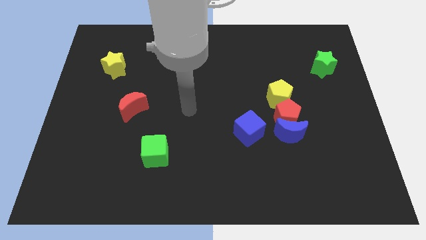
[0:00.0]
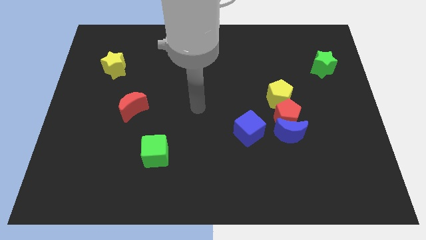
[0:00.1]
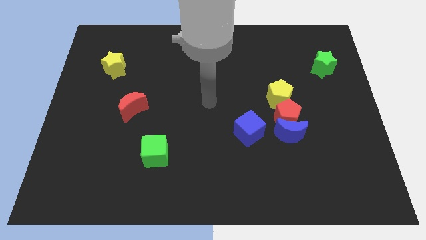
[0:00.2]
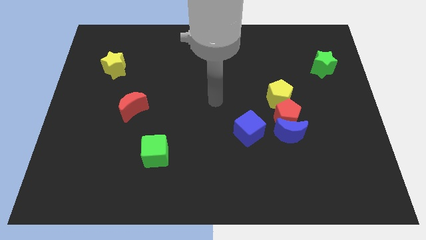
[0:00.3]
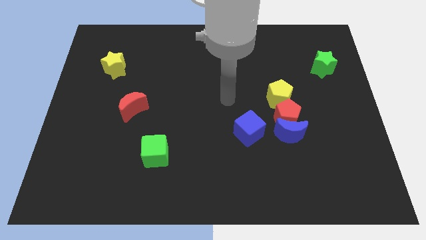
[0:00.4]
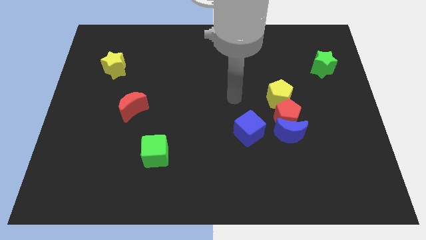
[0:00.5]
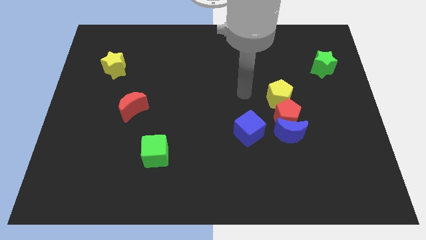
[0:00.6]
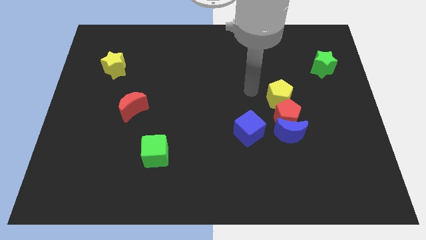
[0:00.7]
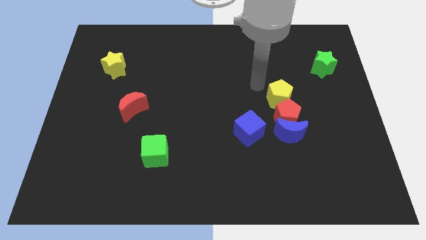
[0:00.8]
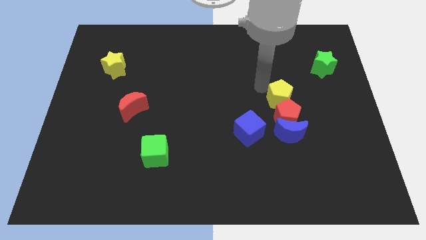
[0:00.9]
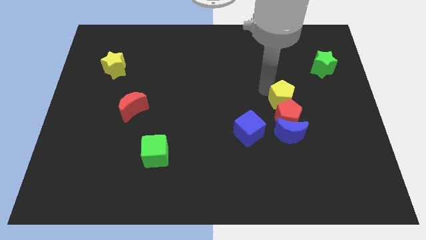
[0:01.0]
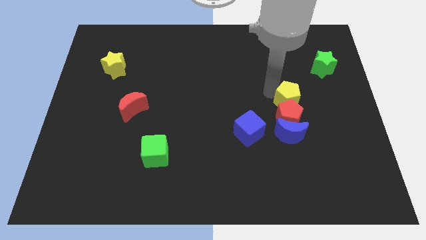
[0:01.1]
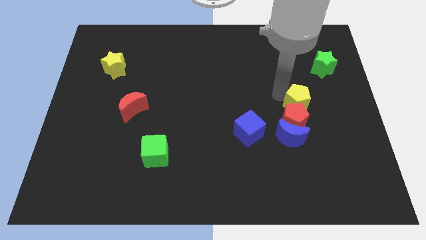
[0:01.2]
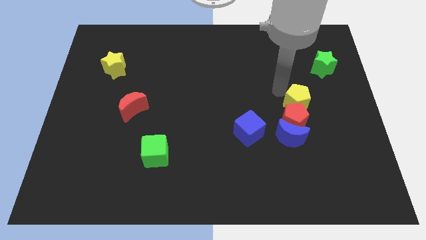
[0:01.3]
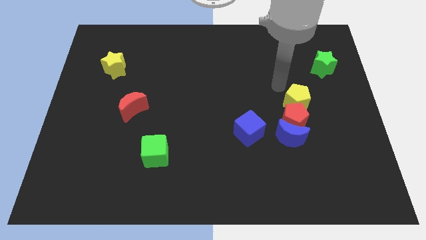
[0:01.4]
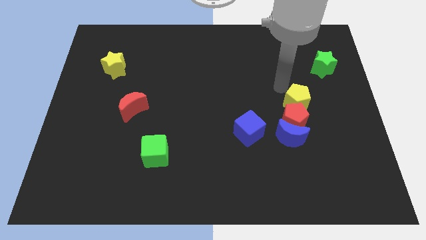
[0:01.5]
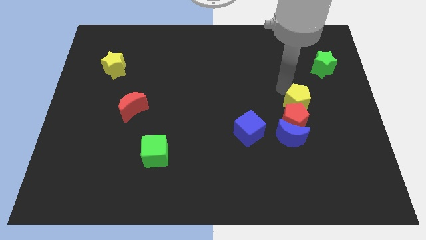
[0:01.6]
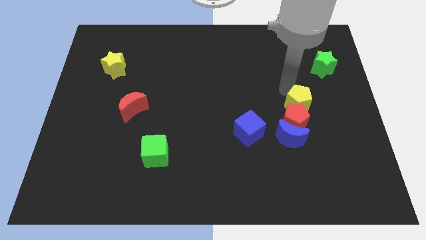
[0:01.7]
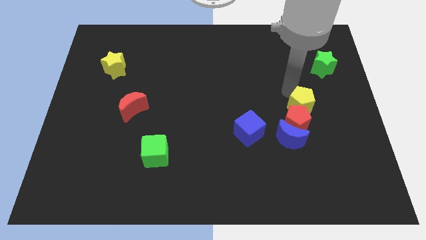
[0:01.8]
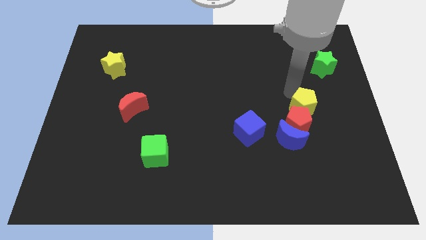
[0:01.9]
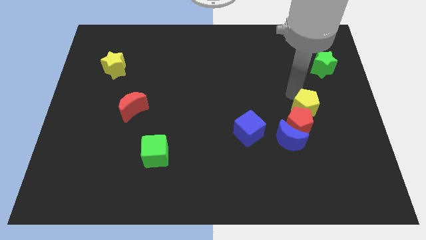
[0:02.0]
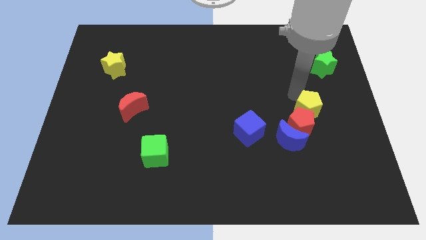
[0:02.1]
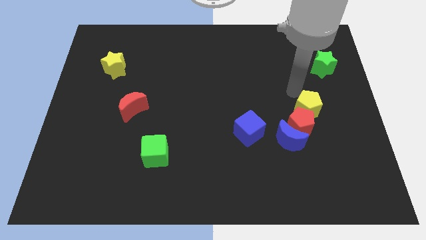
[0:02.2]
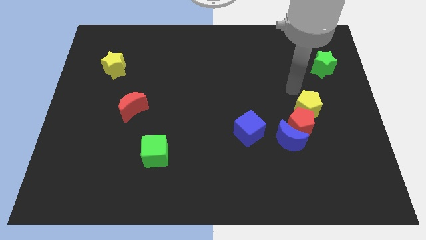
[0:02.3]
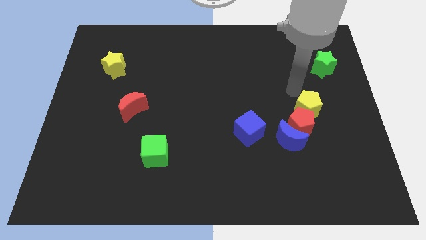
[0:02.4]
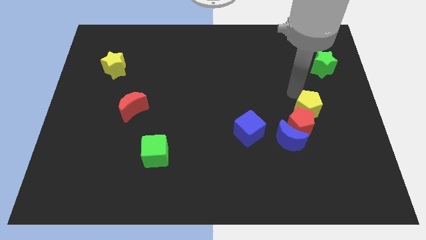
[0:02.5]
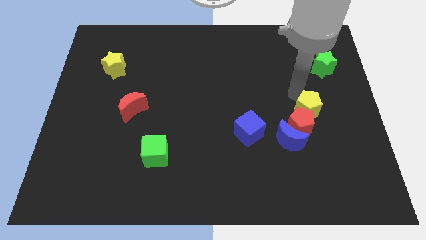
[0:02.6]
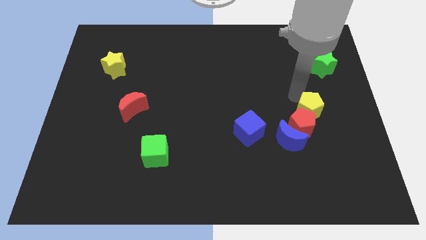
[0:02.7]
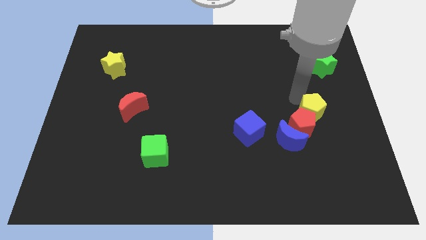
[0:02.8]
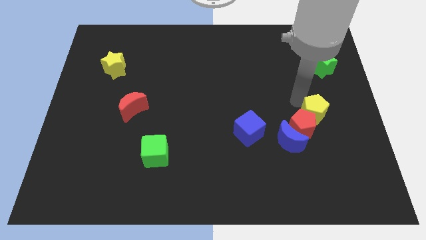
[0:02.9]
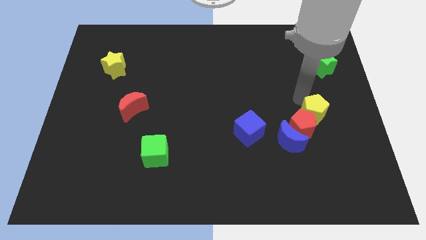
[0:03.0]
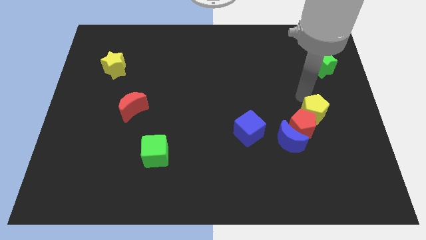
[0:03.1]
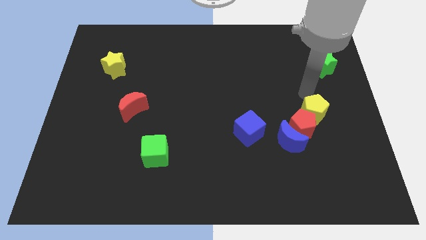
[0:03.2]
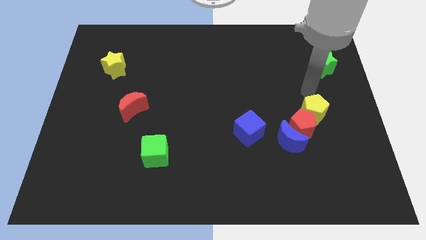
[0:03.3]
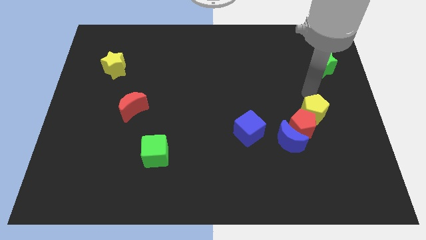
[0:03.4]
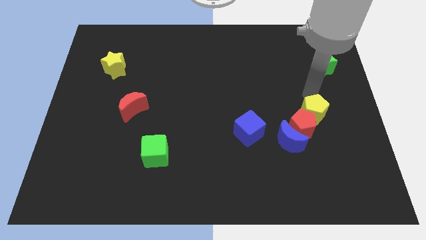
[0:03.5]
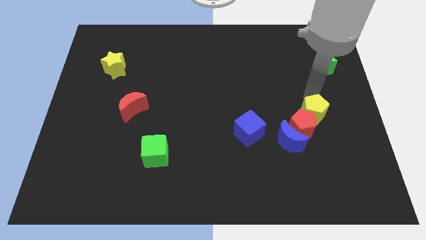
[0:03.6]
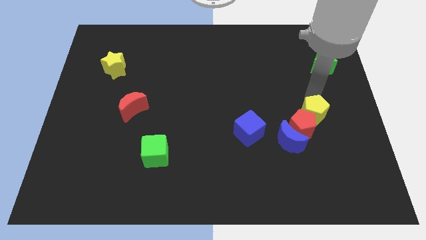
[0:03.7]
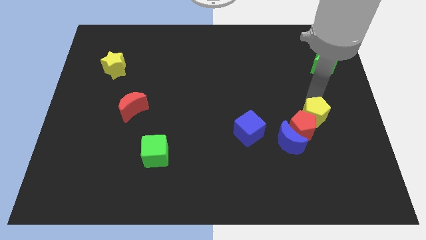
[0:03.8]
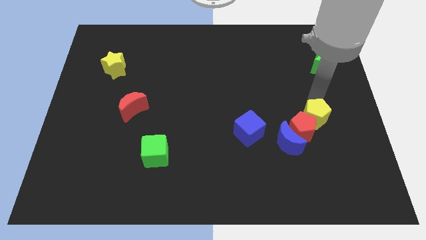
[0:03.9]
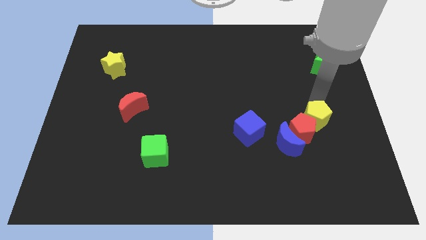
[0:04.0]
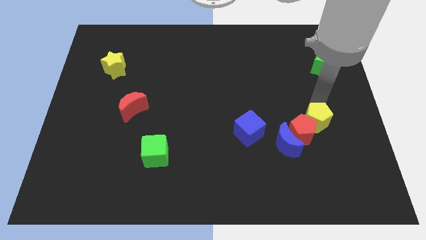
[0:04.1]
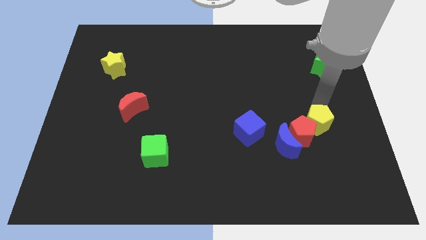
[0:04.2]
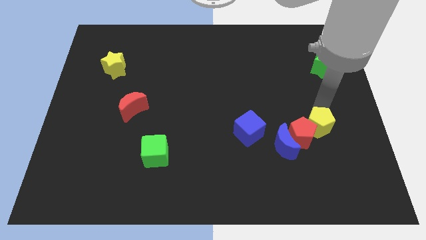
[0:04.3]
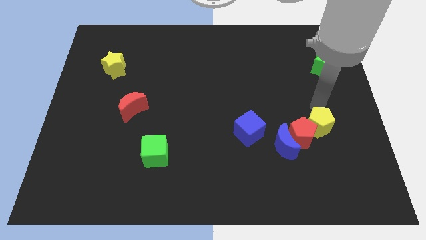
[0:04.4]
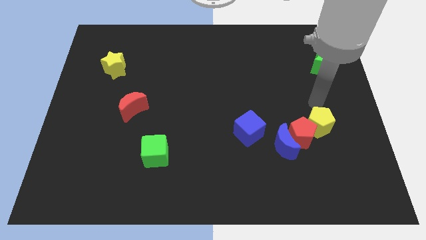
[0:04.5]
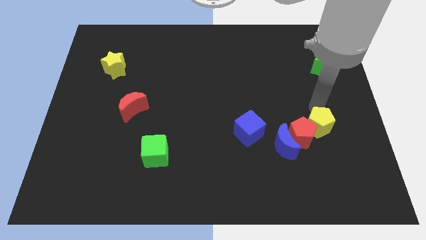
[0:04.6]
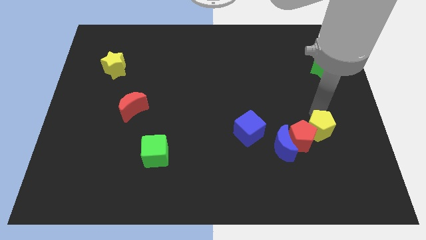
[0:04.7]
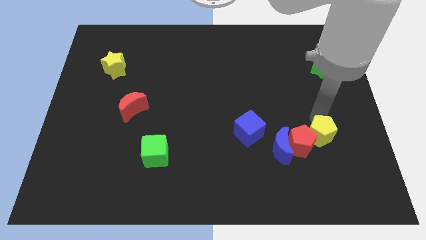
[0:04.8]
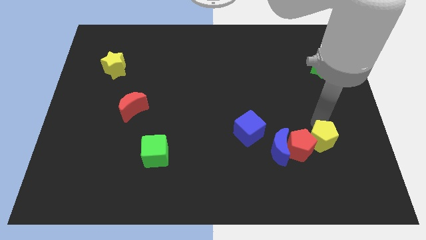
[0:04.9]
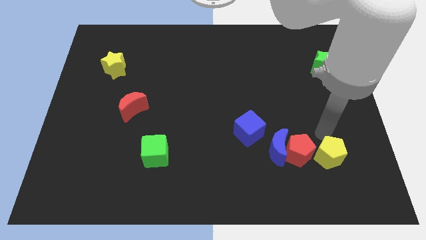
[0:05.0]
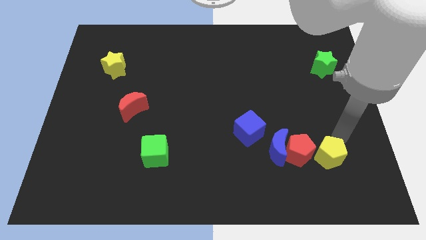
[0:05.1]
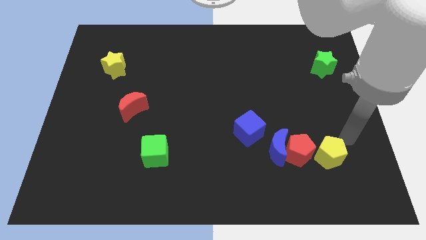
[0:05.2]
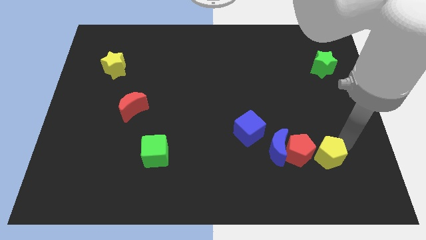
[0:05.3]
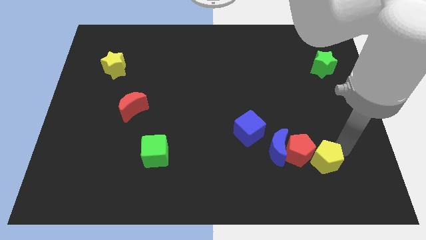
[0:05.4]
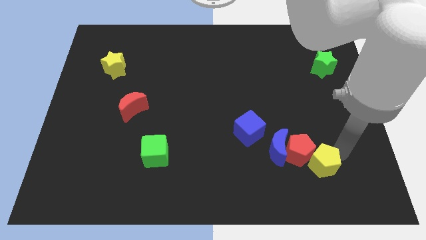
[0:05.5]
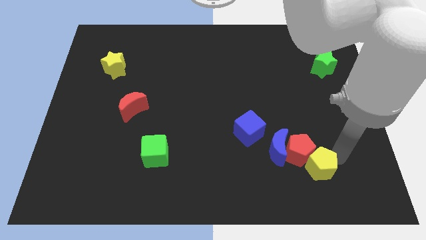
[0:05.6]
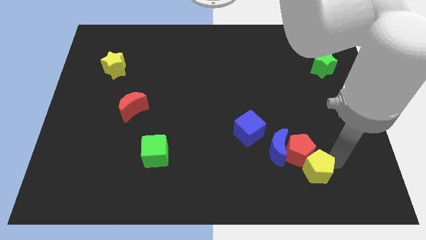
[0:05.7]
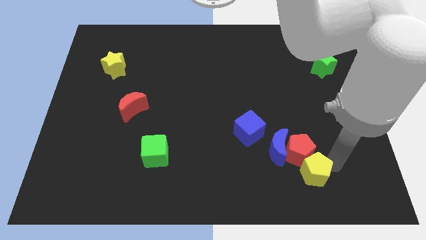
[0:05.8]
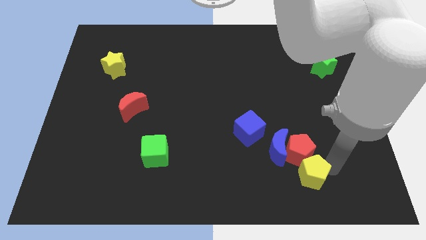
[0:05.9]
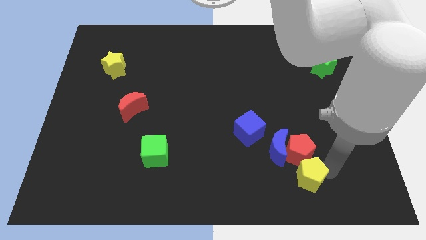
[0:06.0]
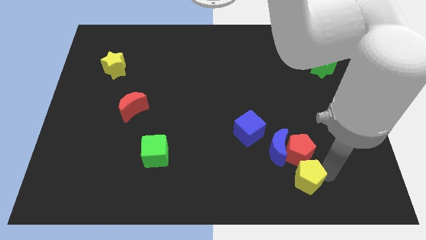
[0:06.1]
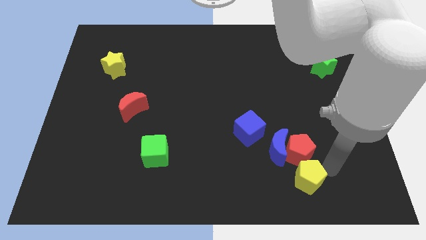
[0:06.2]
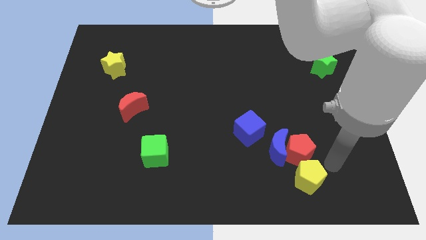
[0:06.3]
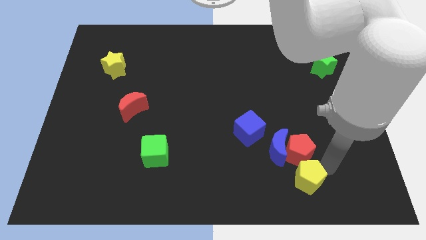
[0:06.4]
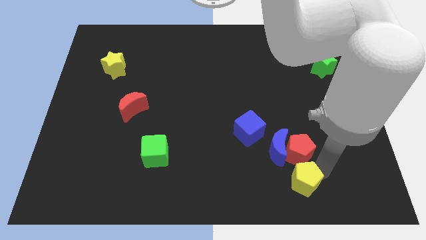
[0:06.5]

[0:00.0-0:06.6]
slide the yellow pentagon below the blue moon

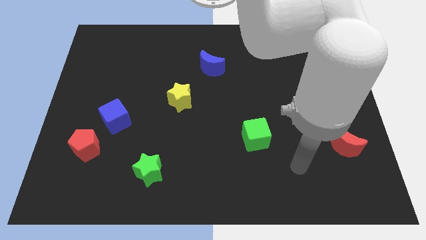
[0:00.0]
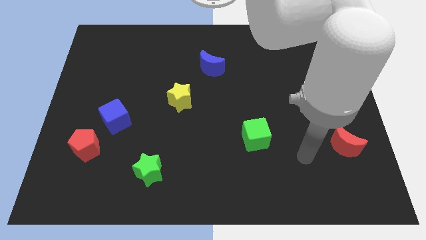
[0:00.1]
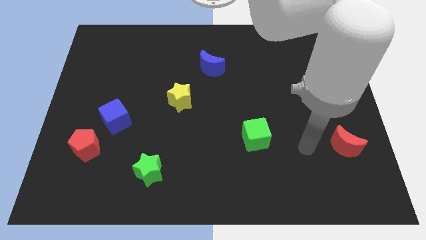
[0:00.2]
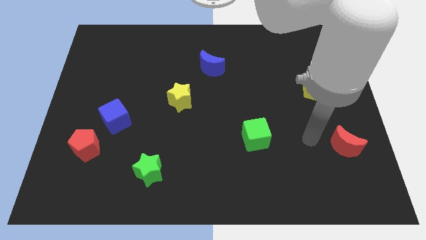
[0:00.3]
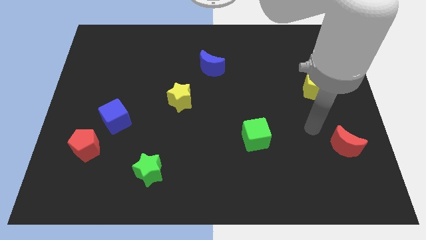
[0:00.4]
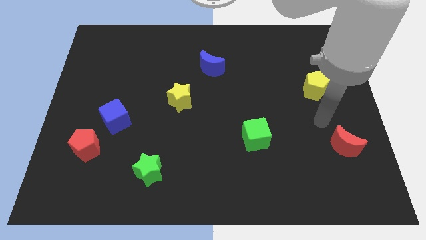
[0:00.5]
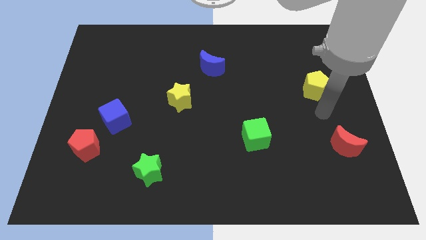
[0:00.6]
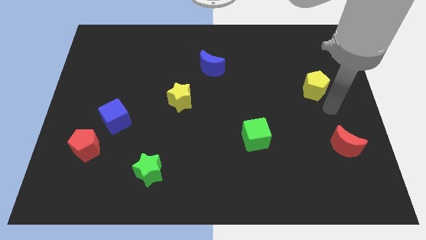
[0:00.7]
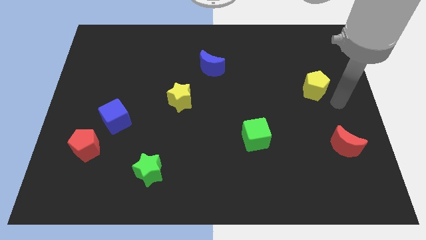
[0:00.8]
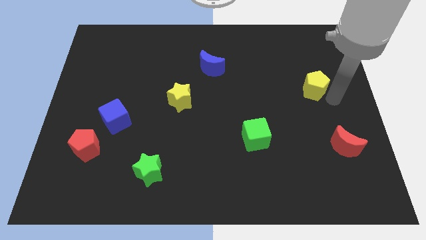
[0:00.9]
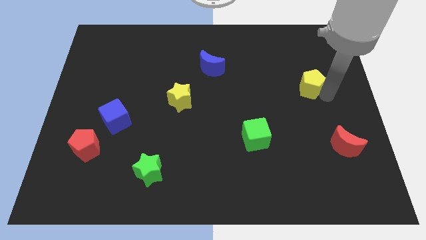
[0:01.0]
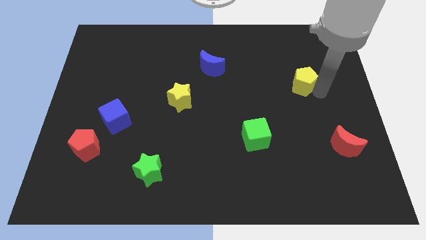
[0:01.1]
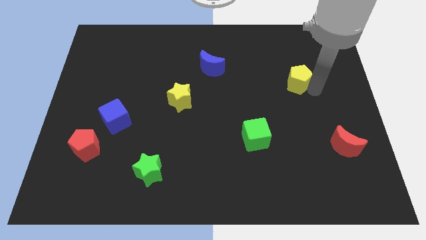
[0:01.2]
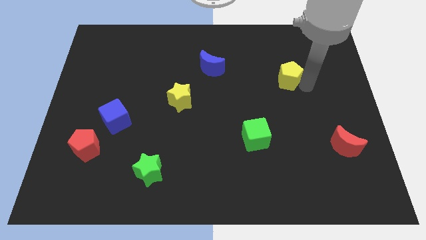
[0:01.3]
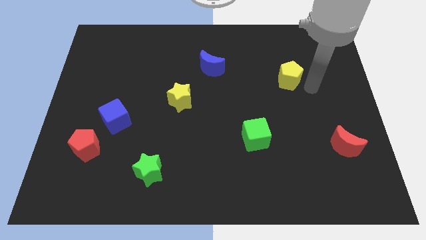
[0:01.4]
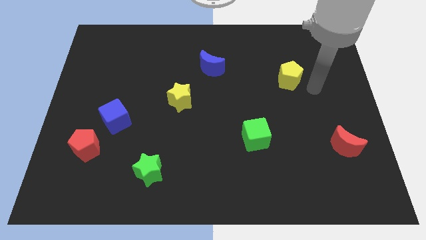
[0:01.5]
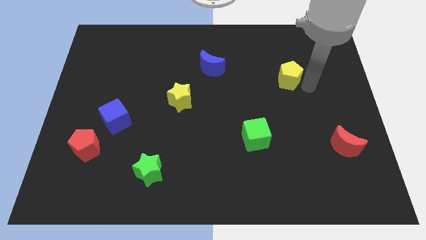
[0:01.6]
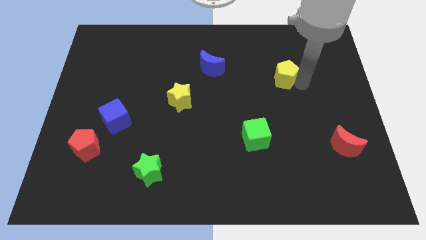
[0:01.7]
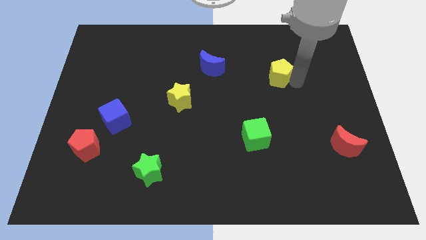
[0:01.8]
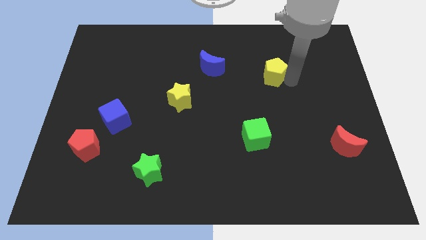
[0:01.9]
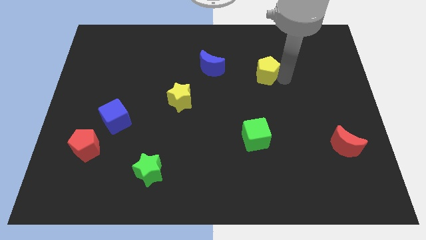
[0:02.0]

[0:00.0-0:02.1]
put the yellow pentagon just right of the blue moon
